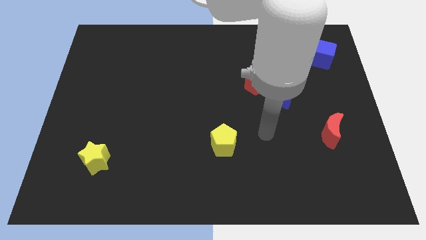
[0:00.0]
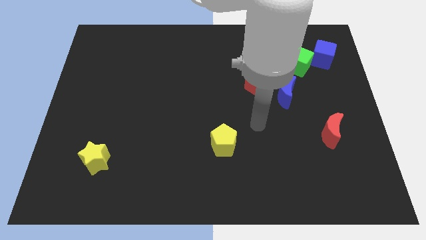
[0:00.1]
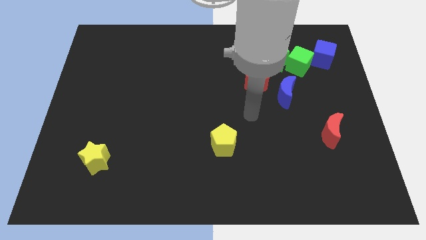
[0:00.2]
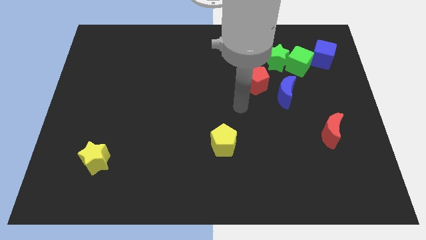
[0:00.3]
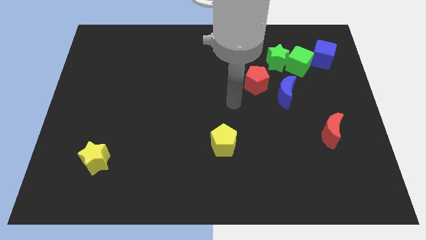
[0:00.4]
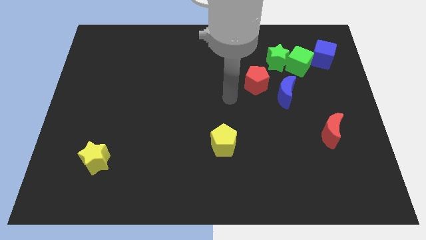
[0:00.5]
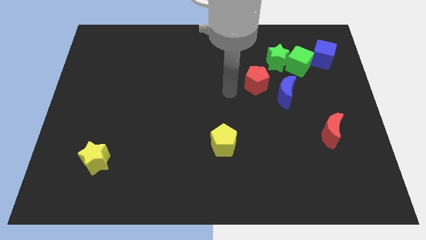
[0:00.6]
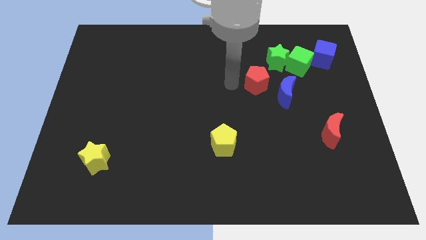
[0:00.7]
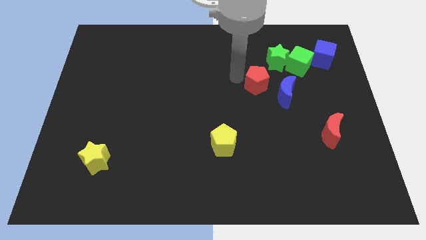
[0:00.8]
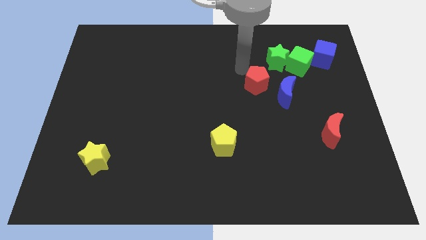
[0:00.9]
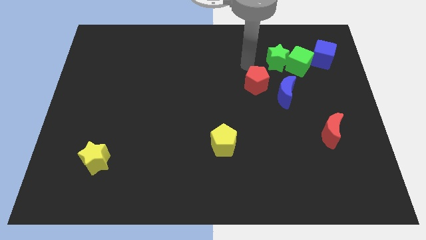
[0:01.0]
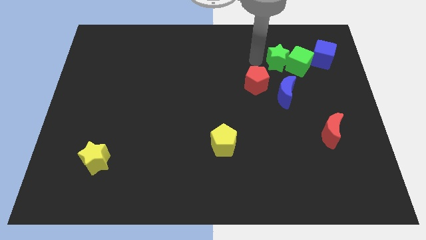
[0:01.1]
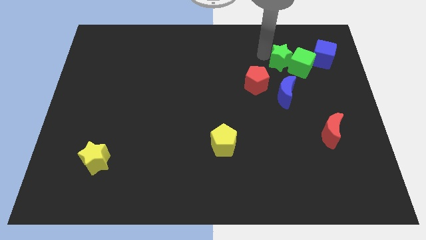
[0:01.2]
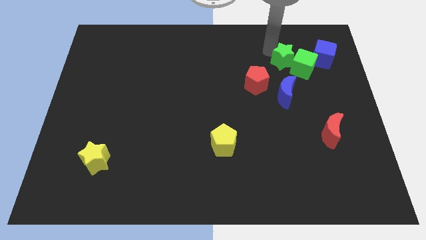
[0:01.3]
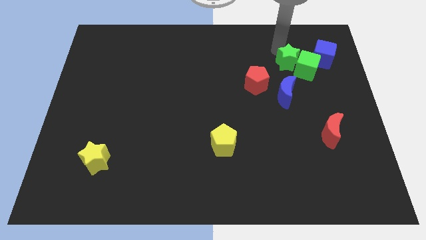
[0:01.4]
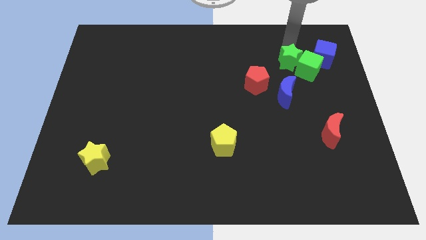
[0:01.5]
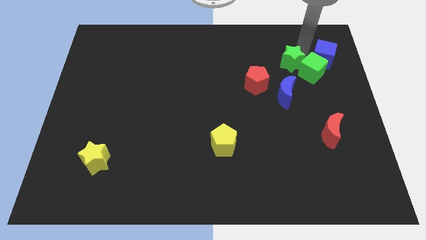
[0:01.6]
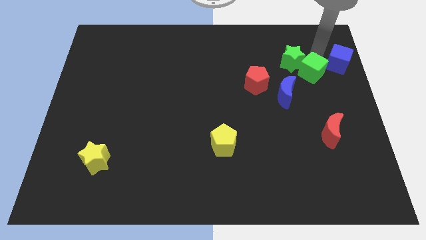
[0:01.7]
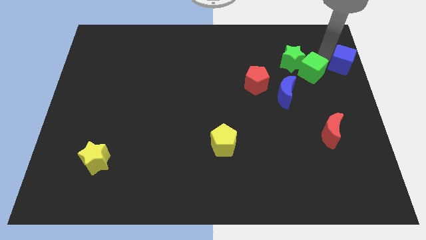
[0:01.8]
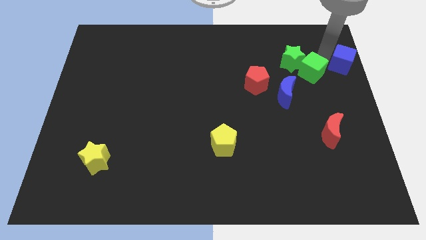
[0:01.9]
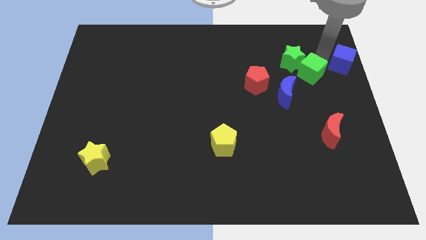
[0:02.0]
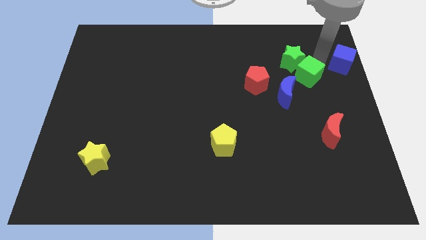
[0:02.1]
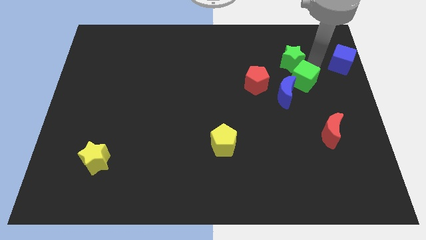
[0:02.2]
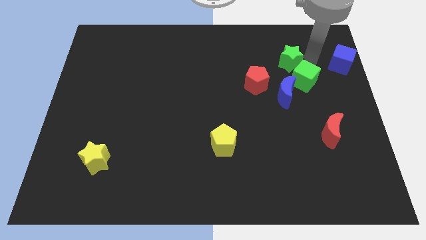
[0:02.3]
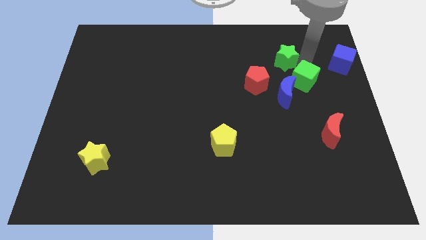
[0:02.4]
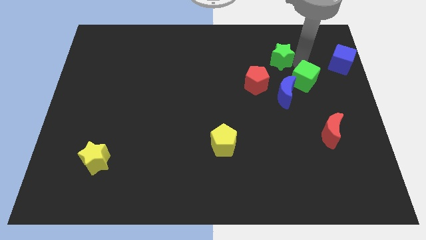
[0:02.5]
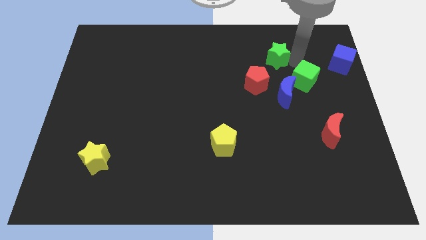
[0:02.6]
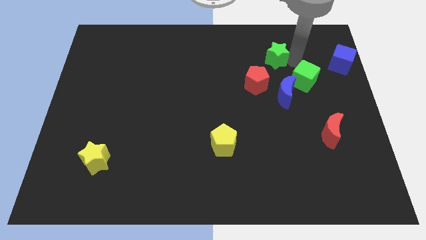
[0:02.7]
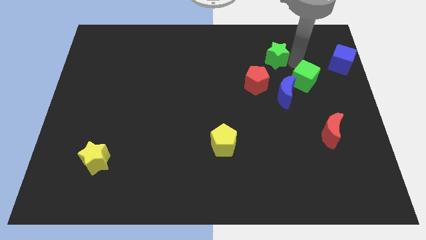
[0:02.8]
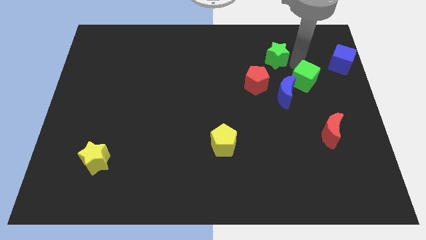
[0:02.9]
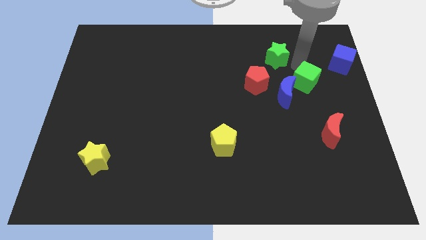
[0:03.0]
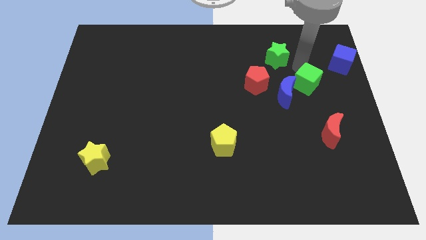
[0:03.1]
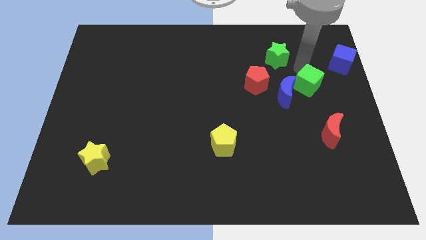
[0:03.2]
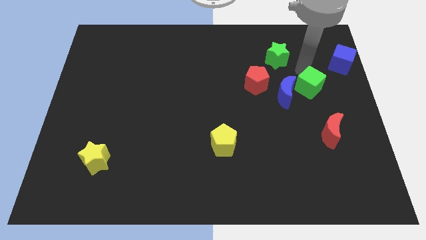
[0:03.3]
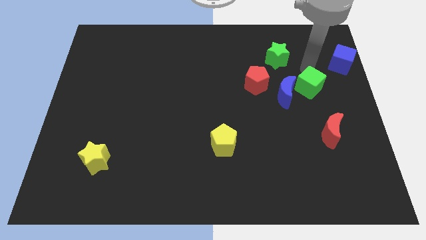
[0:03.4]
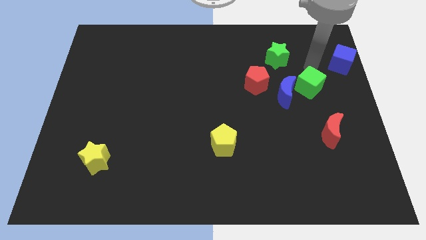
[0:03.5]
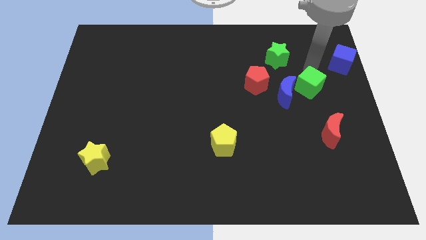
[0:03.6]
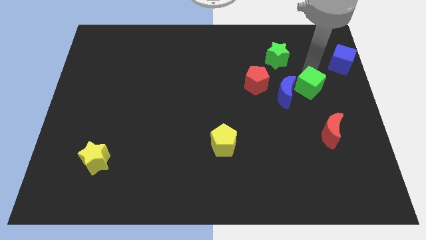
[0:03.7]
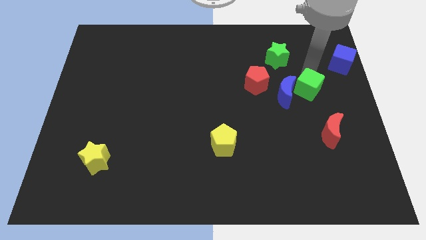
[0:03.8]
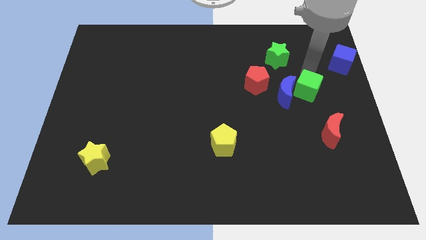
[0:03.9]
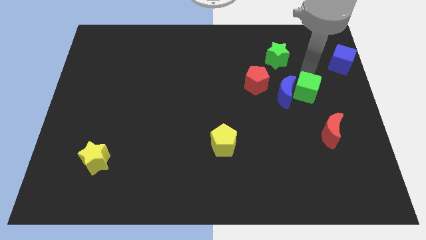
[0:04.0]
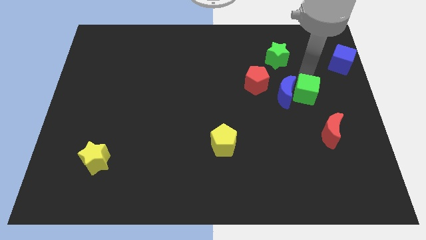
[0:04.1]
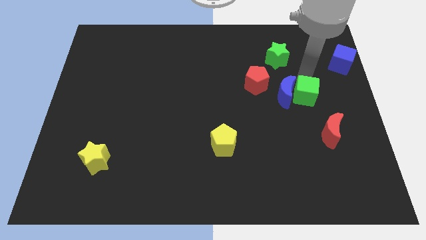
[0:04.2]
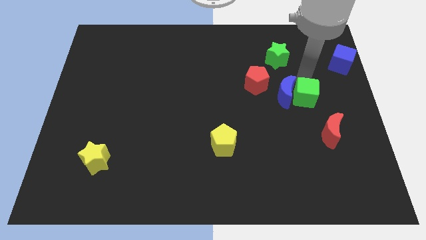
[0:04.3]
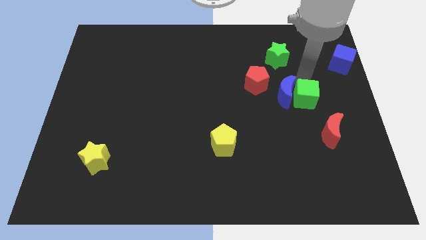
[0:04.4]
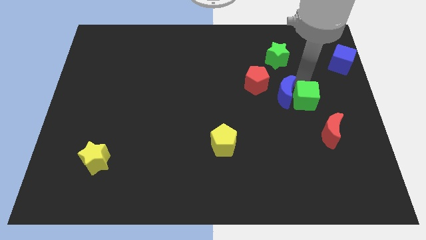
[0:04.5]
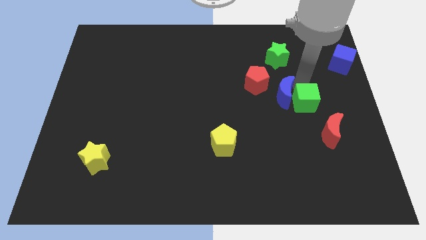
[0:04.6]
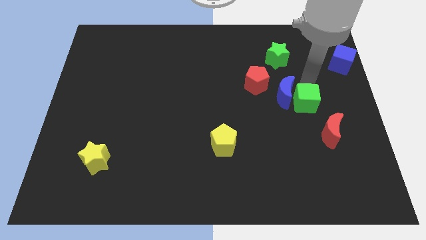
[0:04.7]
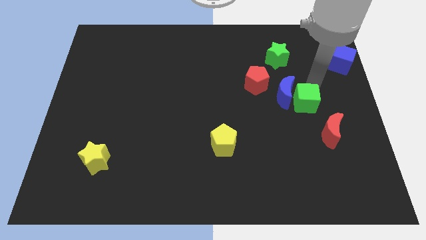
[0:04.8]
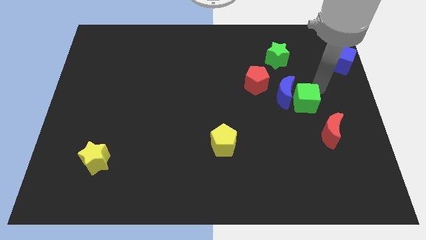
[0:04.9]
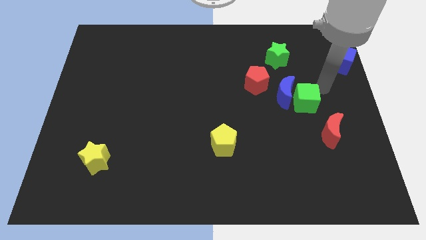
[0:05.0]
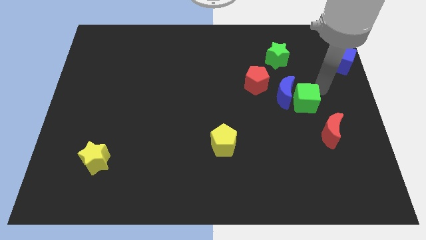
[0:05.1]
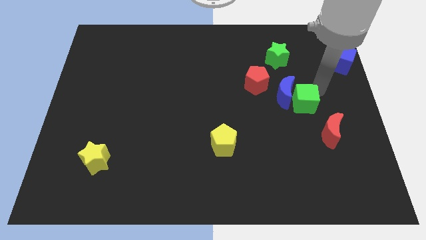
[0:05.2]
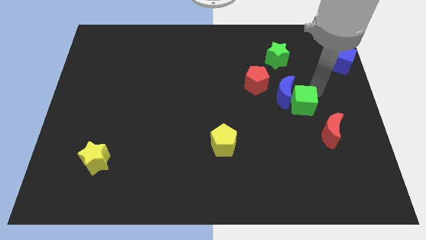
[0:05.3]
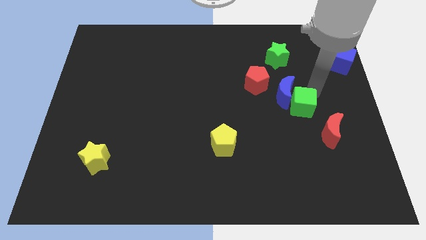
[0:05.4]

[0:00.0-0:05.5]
slightly move the green cube down and left diagonally

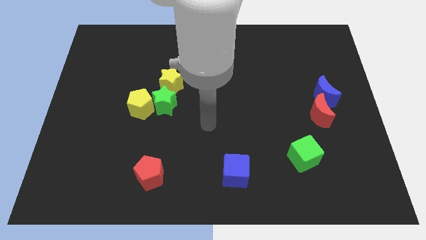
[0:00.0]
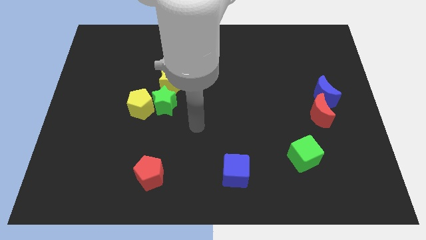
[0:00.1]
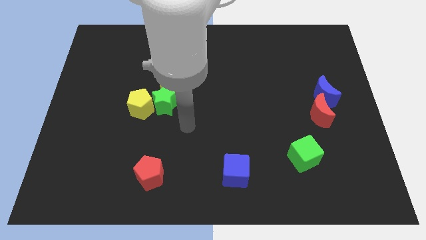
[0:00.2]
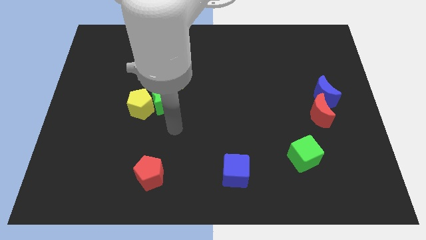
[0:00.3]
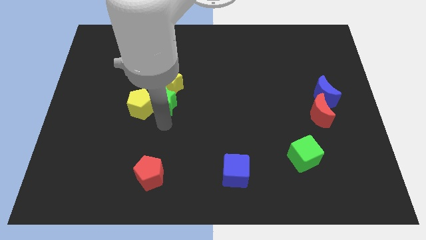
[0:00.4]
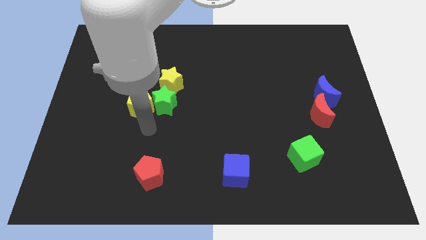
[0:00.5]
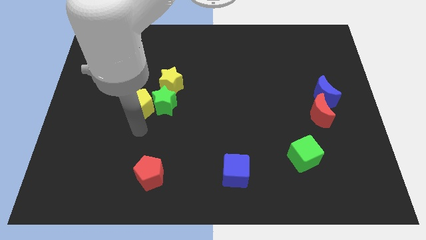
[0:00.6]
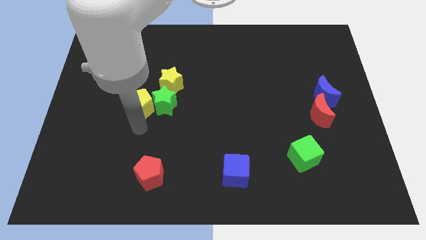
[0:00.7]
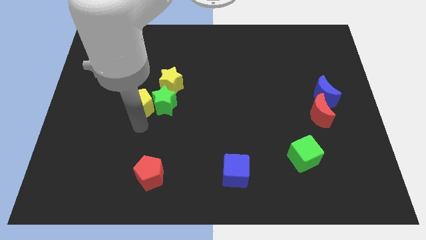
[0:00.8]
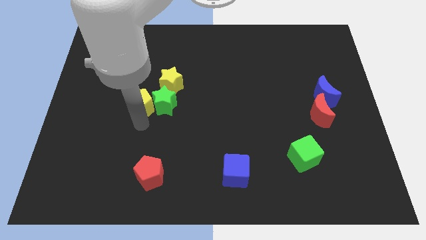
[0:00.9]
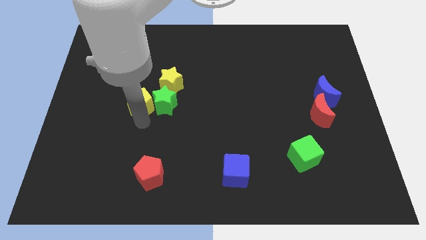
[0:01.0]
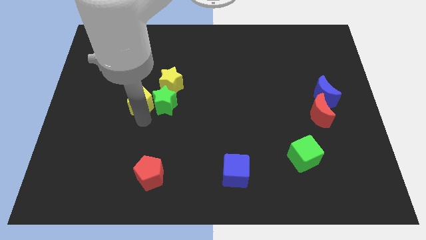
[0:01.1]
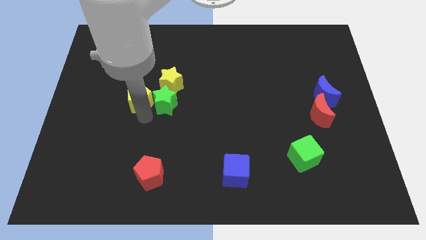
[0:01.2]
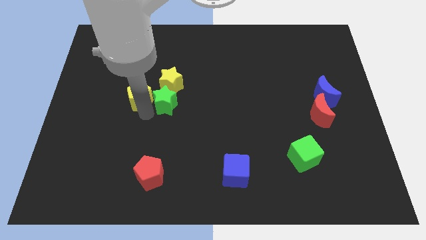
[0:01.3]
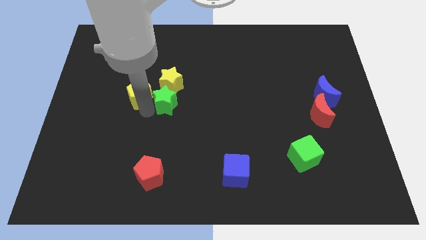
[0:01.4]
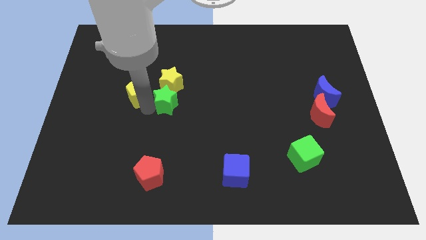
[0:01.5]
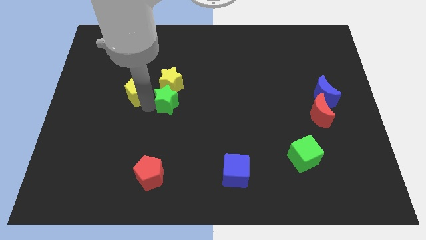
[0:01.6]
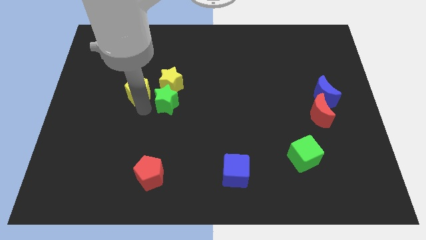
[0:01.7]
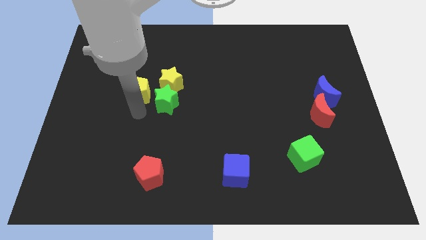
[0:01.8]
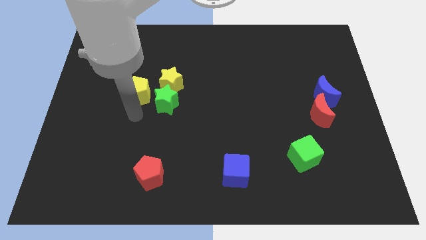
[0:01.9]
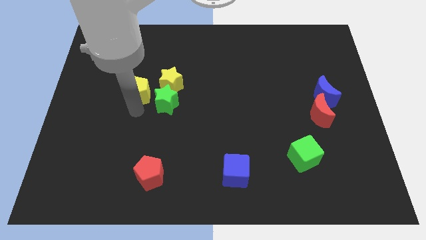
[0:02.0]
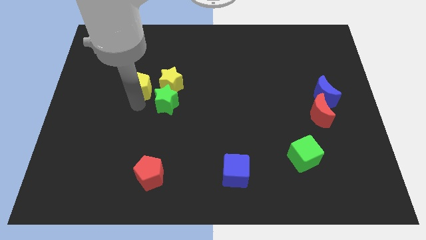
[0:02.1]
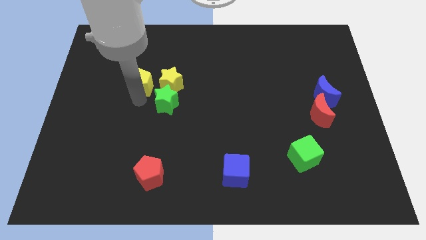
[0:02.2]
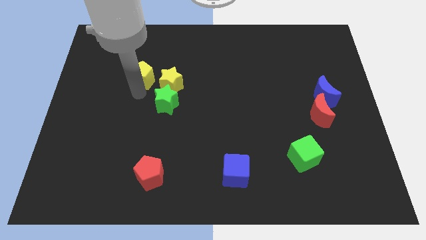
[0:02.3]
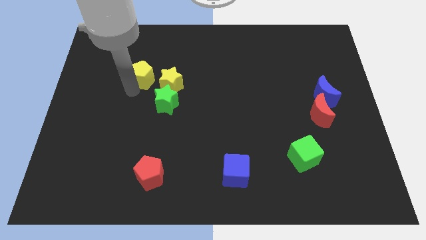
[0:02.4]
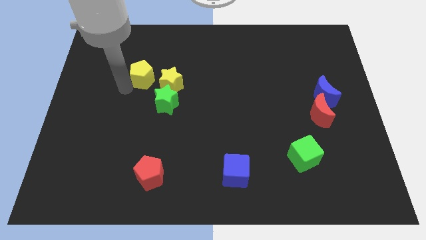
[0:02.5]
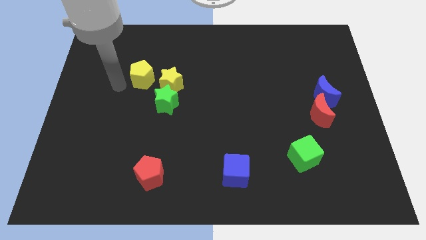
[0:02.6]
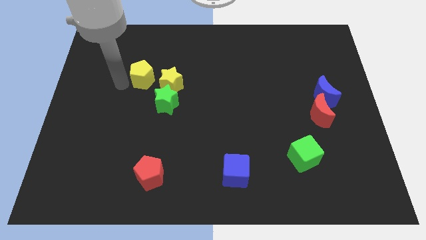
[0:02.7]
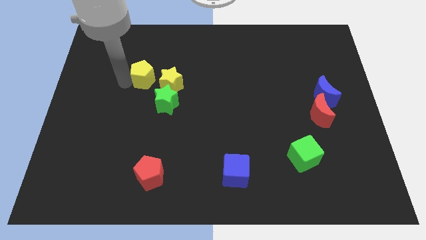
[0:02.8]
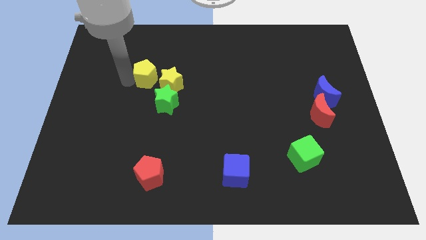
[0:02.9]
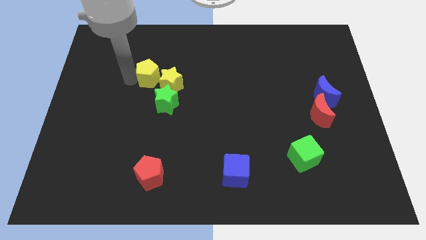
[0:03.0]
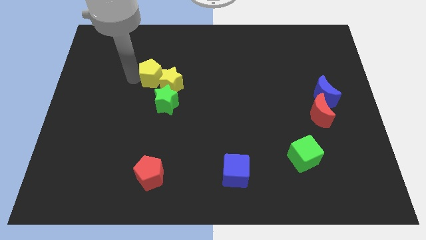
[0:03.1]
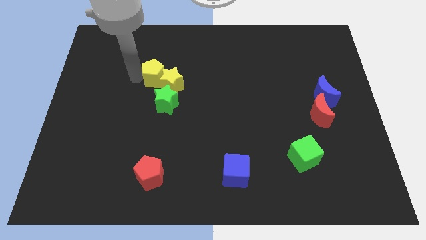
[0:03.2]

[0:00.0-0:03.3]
slightly move the yellow pentagon diagonally upwards and to the right
